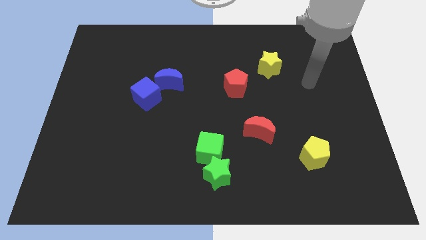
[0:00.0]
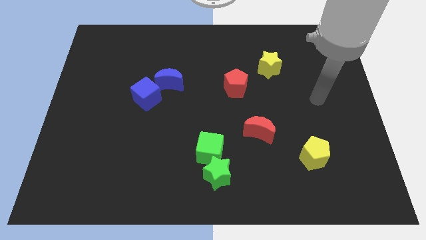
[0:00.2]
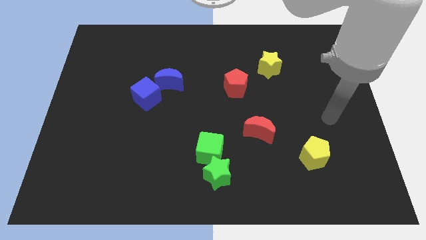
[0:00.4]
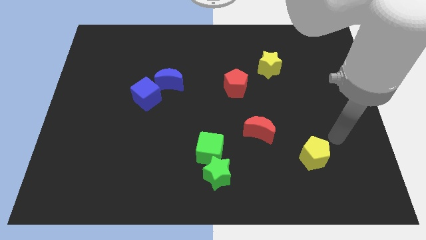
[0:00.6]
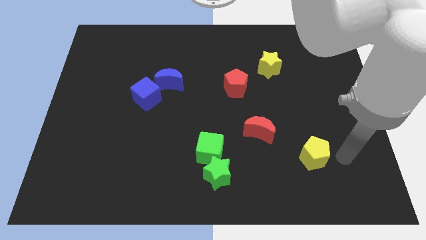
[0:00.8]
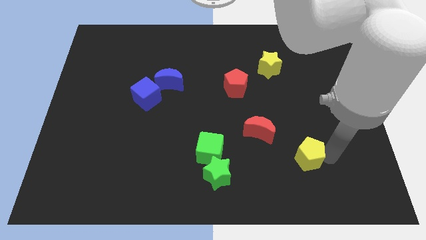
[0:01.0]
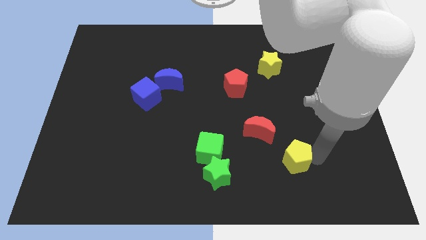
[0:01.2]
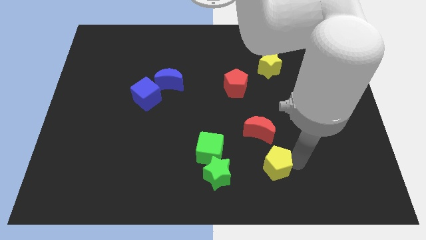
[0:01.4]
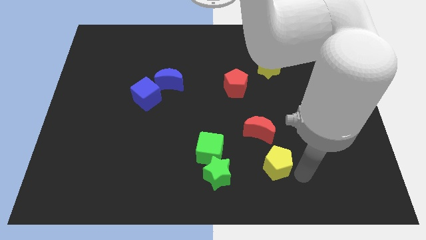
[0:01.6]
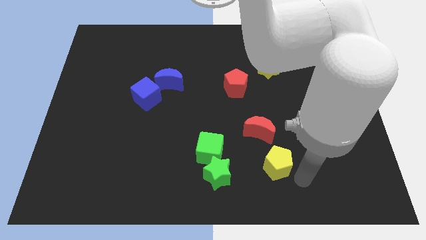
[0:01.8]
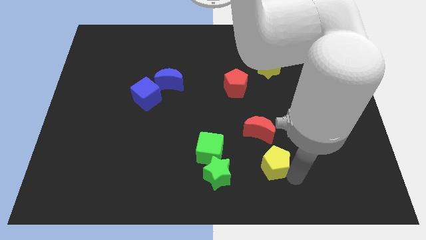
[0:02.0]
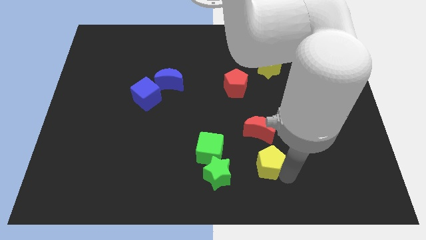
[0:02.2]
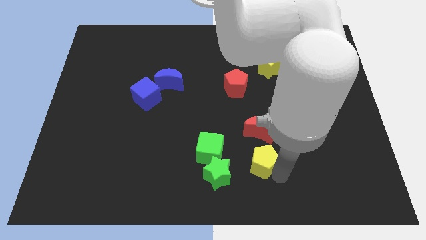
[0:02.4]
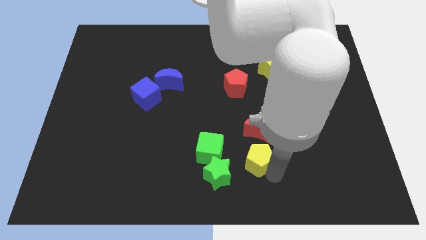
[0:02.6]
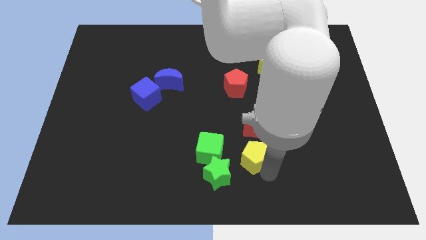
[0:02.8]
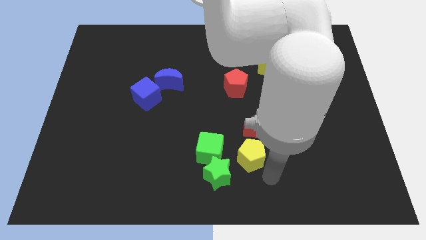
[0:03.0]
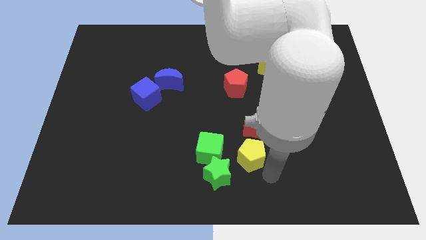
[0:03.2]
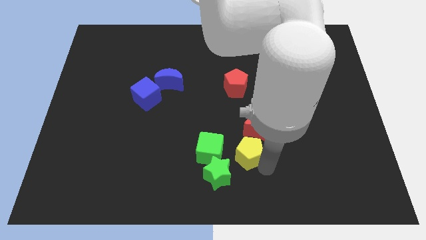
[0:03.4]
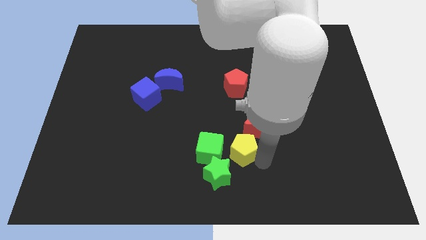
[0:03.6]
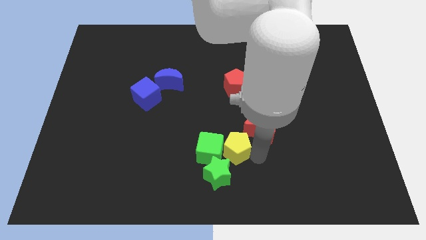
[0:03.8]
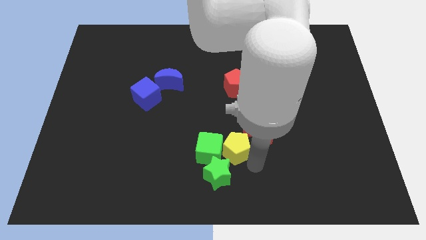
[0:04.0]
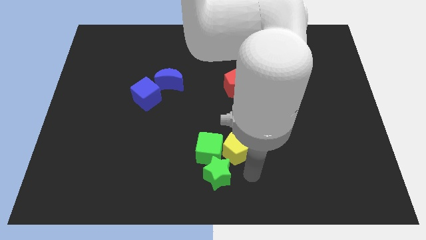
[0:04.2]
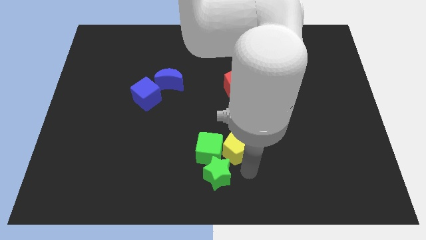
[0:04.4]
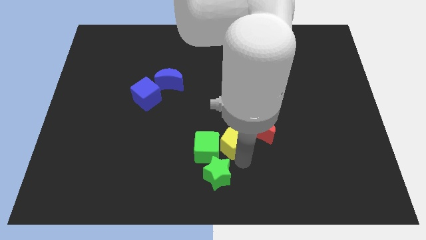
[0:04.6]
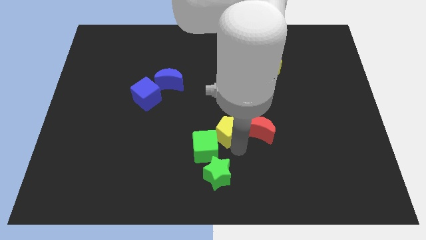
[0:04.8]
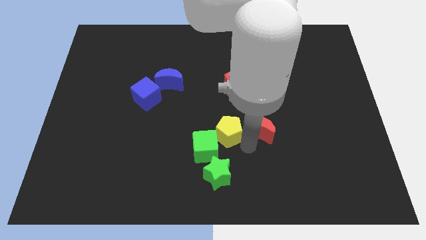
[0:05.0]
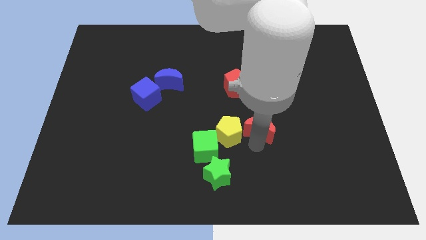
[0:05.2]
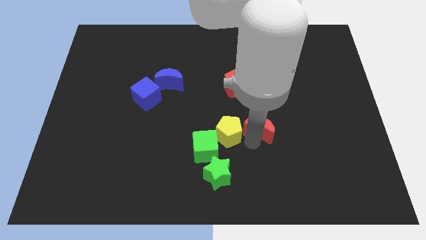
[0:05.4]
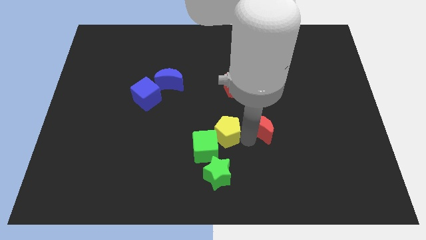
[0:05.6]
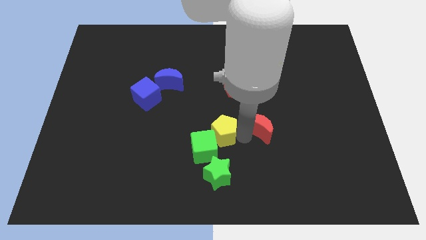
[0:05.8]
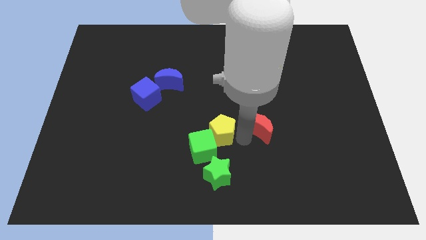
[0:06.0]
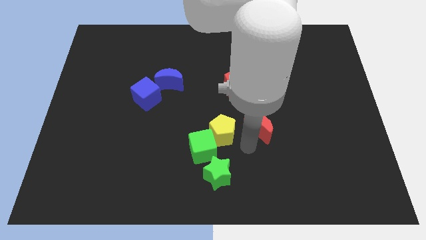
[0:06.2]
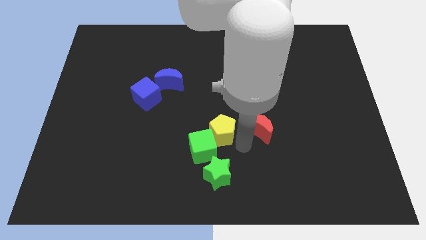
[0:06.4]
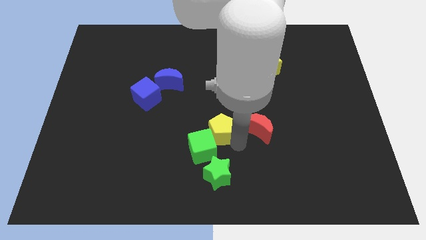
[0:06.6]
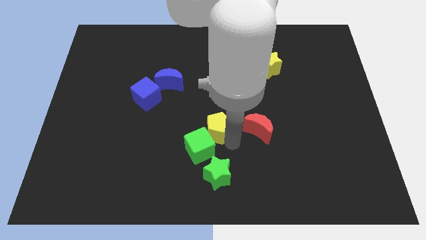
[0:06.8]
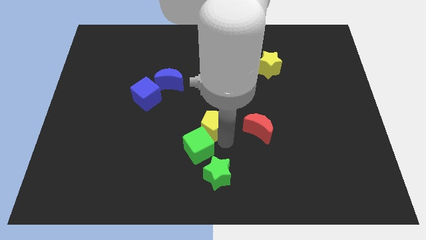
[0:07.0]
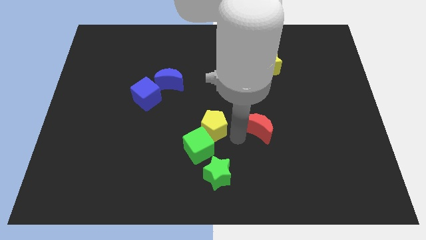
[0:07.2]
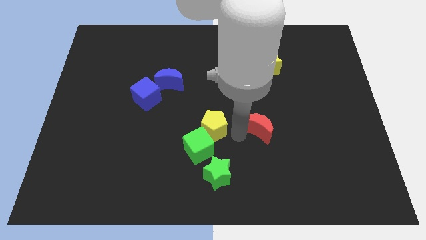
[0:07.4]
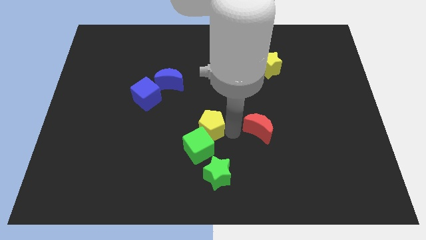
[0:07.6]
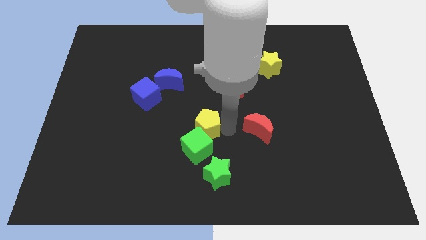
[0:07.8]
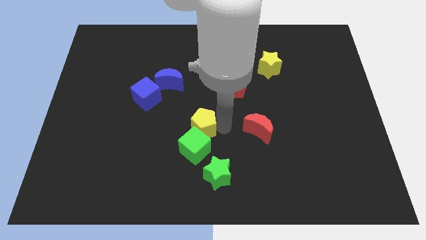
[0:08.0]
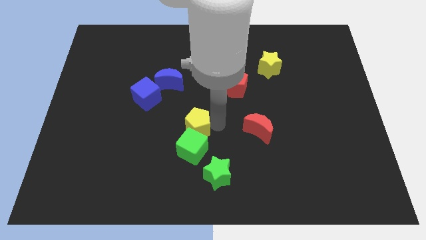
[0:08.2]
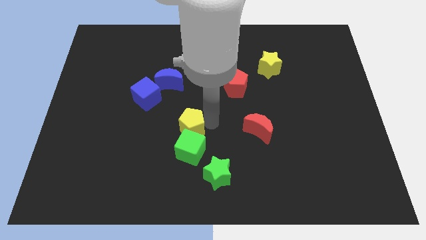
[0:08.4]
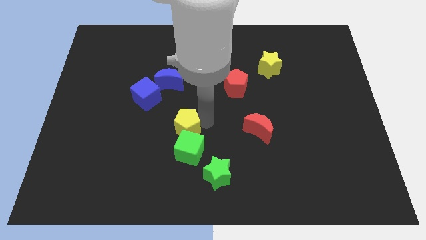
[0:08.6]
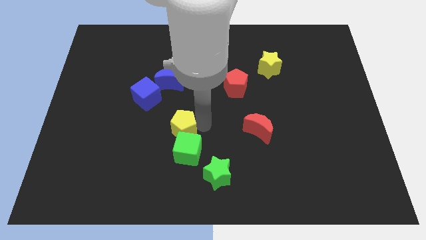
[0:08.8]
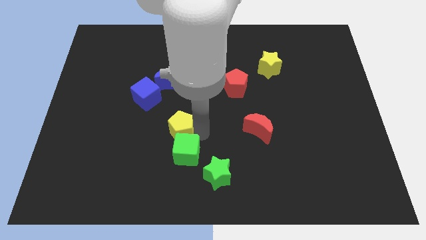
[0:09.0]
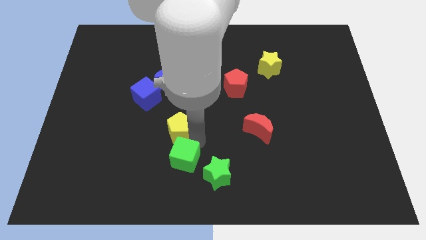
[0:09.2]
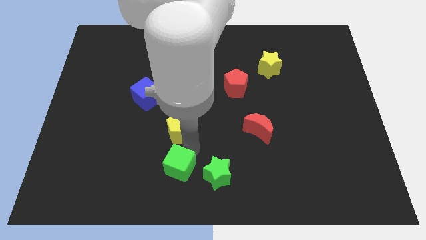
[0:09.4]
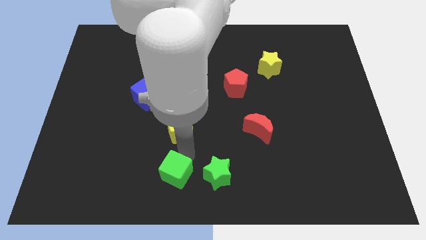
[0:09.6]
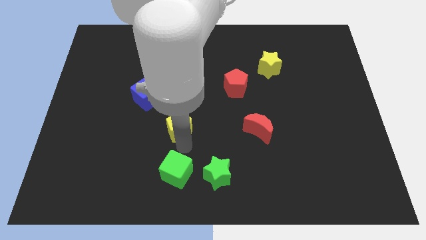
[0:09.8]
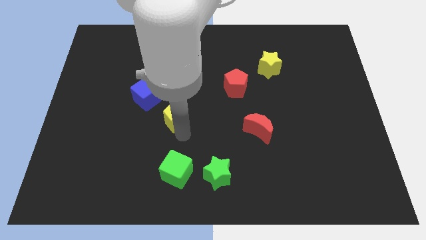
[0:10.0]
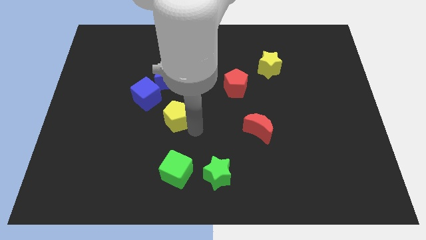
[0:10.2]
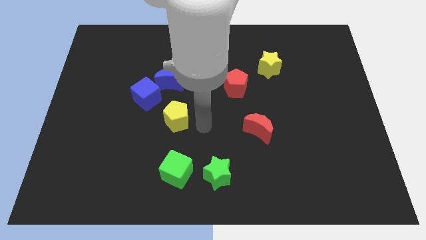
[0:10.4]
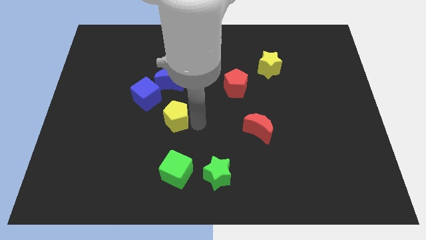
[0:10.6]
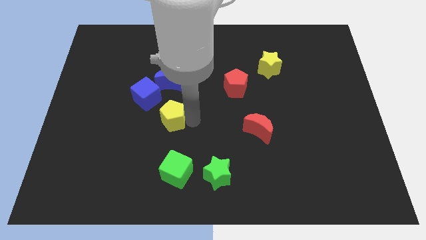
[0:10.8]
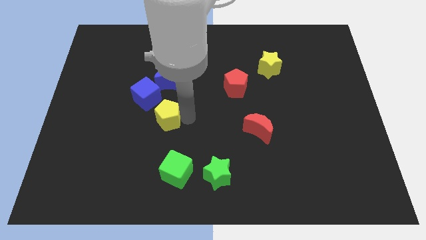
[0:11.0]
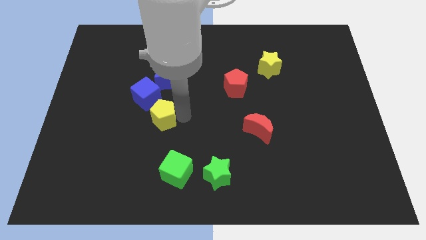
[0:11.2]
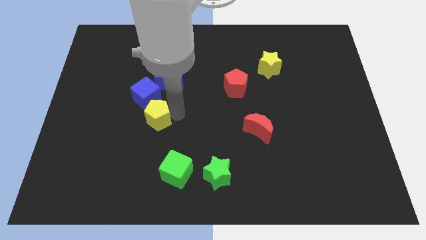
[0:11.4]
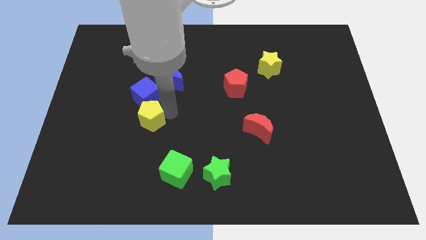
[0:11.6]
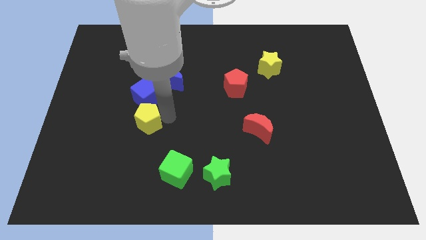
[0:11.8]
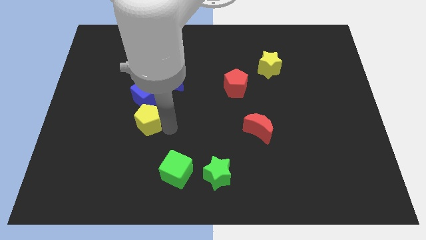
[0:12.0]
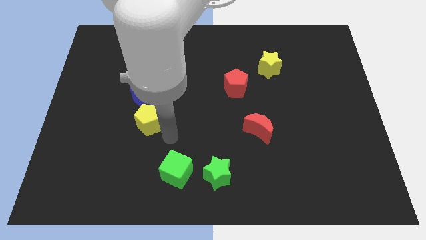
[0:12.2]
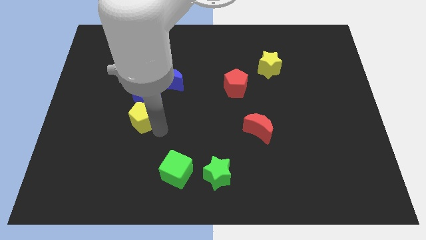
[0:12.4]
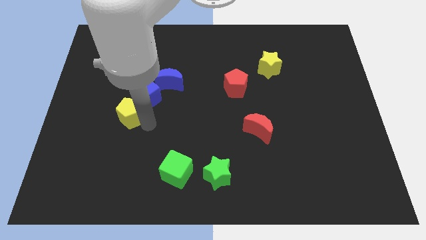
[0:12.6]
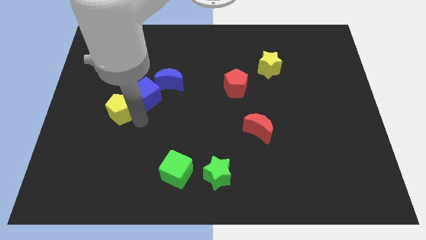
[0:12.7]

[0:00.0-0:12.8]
slide the yellow pentagon left of the blue cube

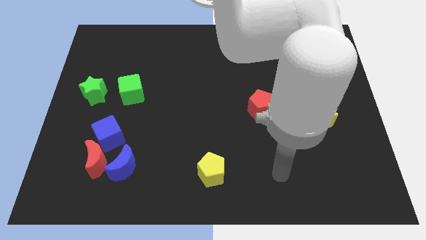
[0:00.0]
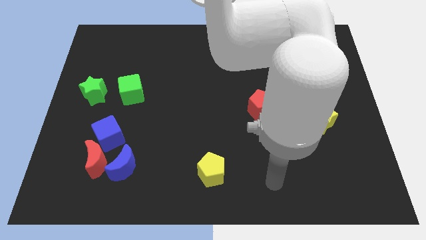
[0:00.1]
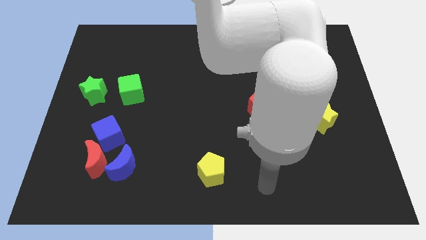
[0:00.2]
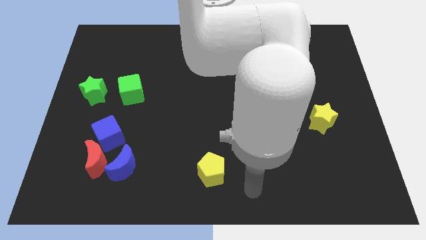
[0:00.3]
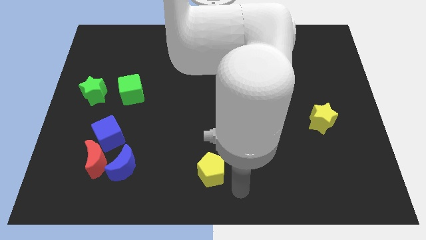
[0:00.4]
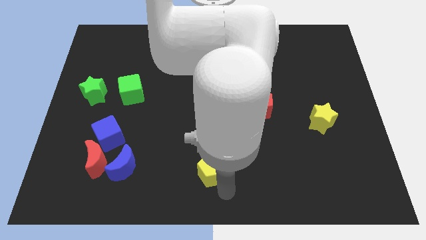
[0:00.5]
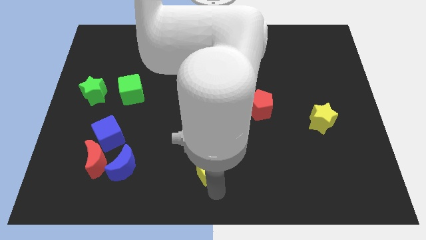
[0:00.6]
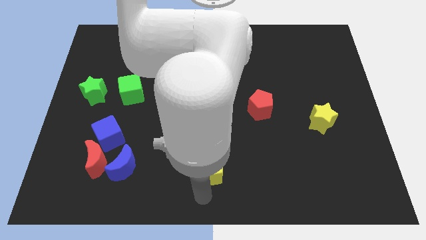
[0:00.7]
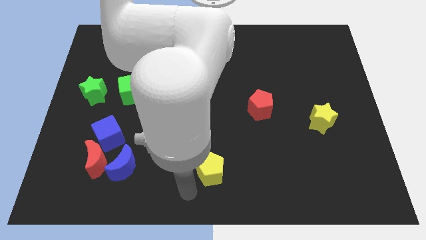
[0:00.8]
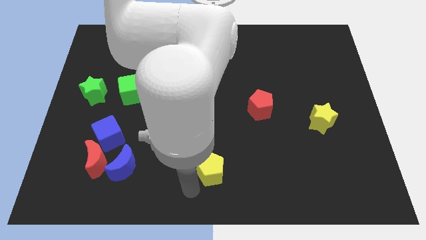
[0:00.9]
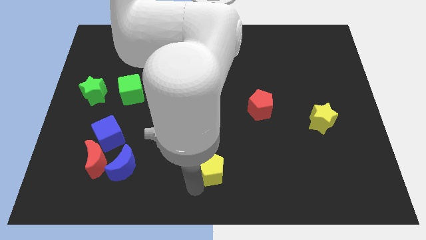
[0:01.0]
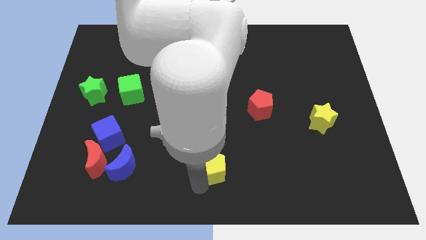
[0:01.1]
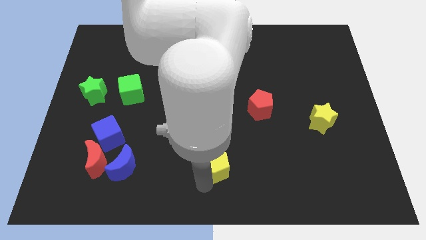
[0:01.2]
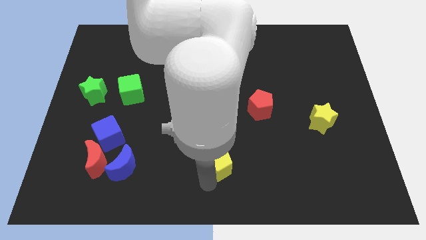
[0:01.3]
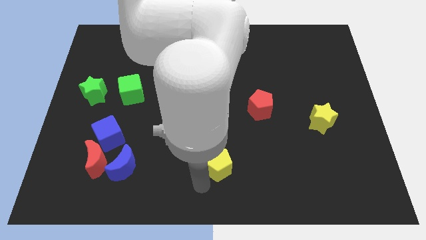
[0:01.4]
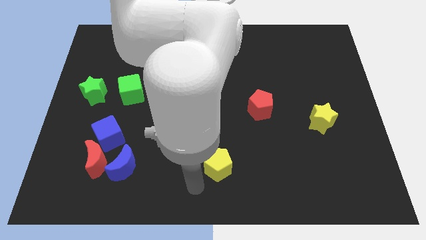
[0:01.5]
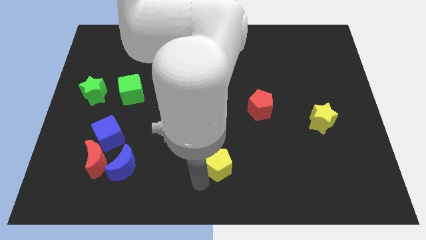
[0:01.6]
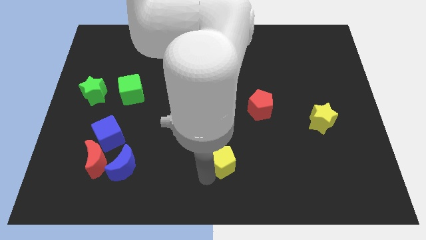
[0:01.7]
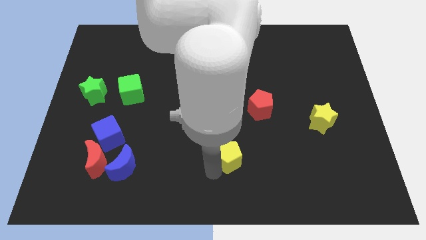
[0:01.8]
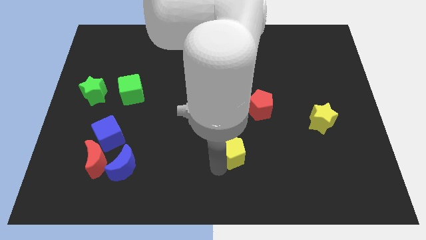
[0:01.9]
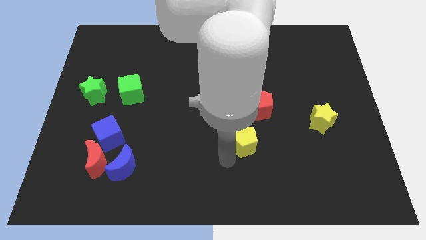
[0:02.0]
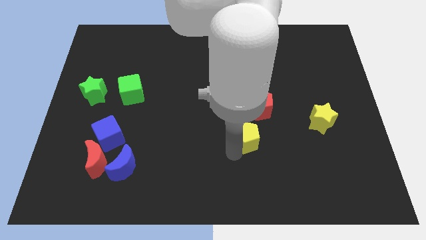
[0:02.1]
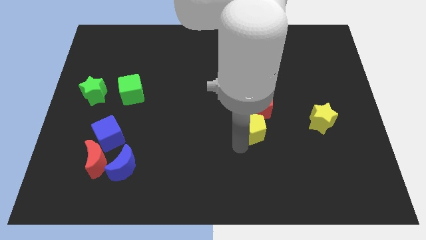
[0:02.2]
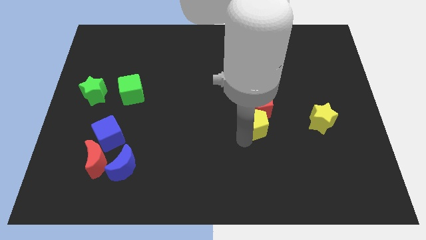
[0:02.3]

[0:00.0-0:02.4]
slide the yellow pentagon left of the yellow star
